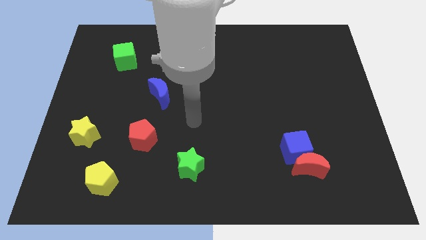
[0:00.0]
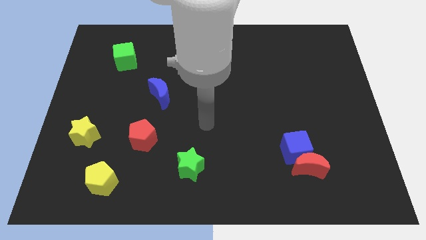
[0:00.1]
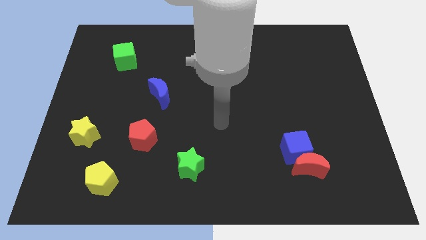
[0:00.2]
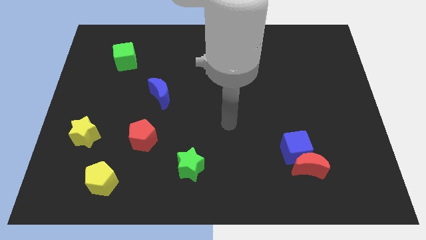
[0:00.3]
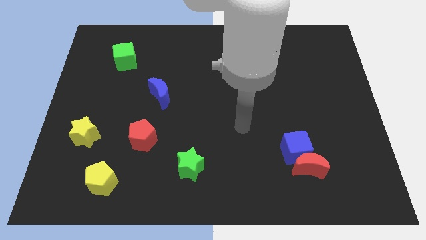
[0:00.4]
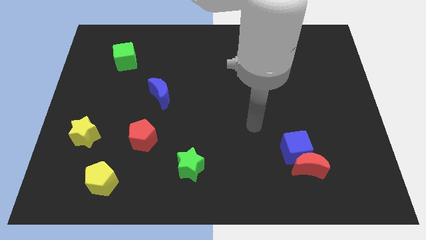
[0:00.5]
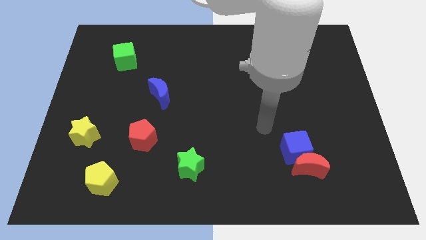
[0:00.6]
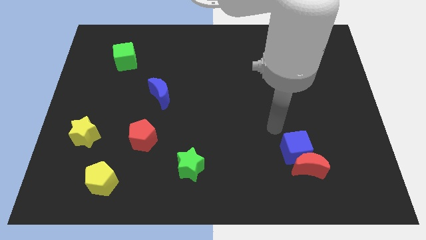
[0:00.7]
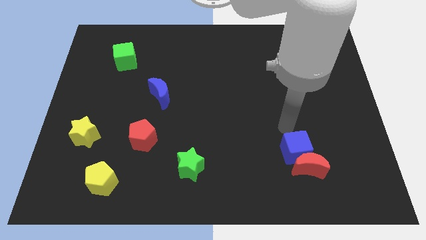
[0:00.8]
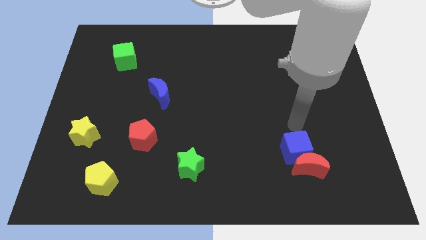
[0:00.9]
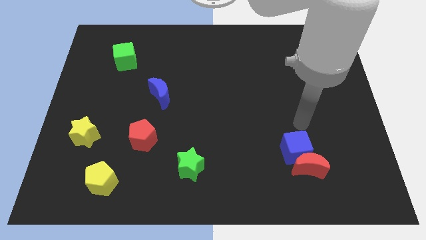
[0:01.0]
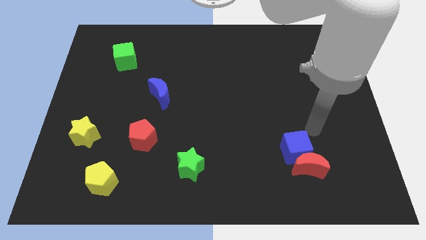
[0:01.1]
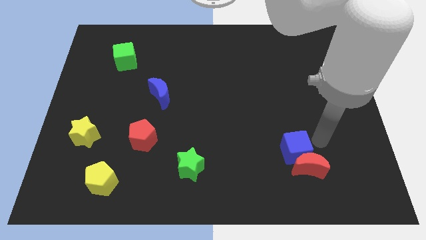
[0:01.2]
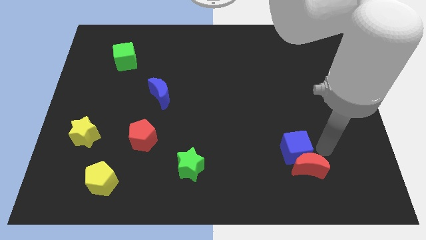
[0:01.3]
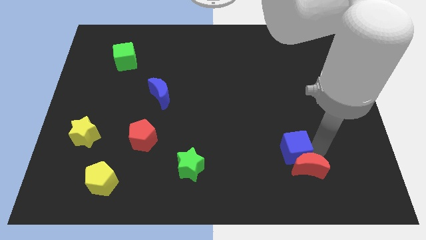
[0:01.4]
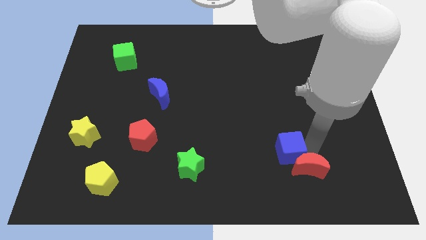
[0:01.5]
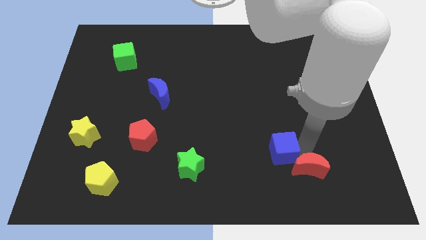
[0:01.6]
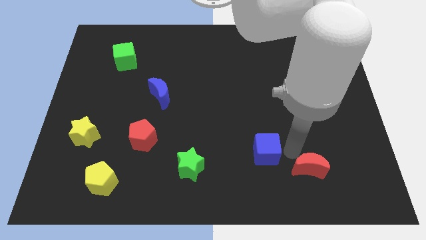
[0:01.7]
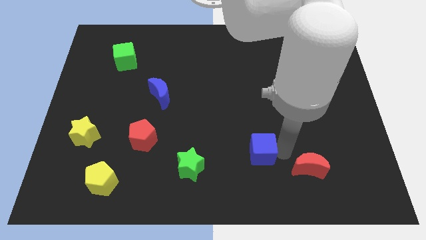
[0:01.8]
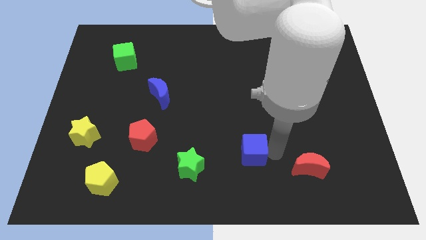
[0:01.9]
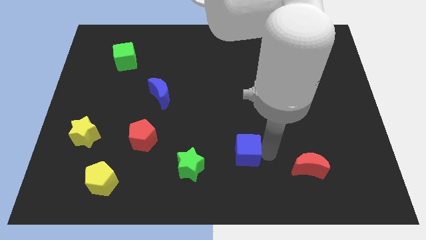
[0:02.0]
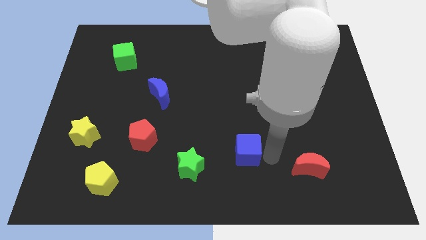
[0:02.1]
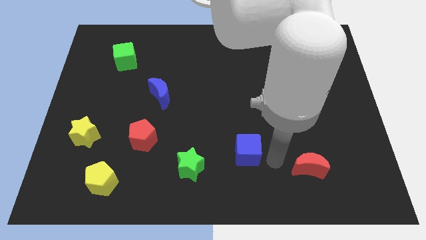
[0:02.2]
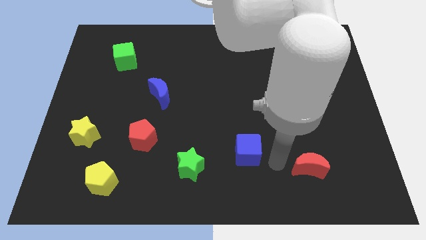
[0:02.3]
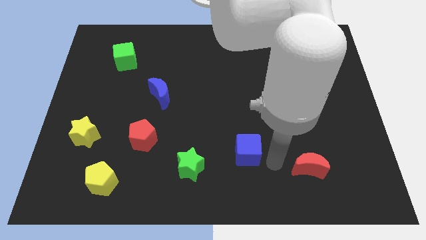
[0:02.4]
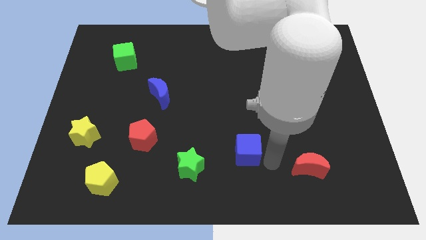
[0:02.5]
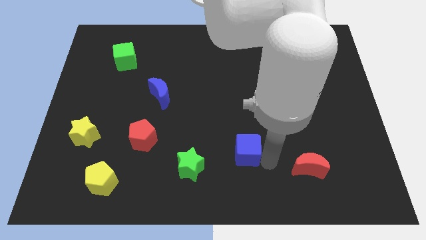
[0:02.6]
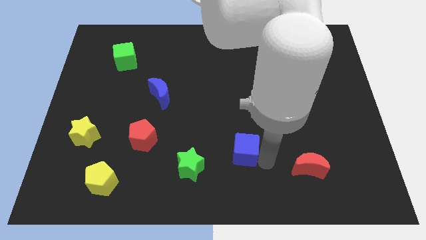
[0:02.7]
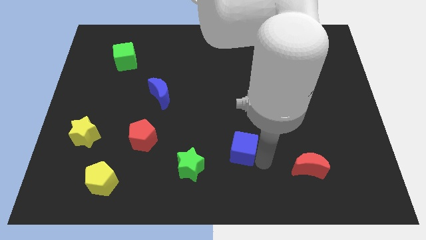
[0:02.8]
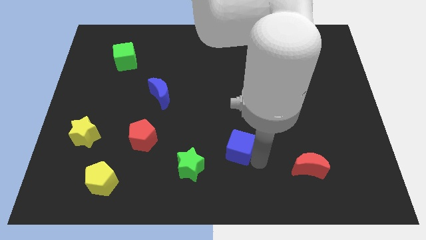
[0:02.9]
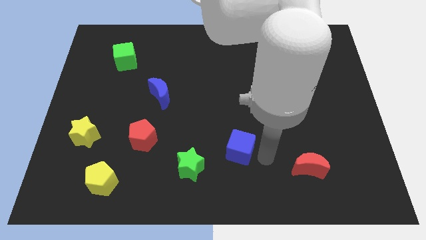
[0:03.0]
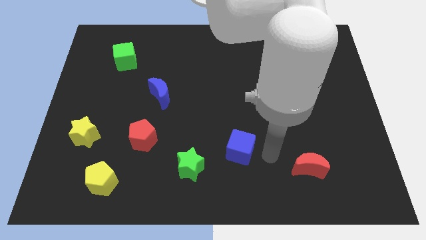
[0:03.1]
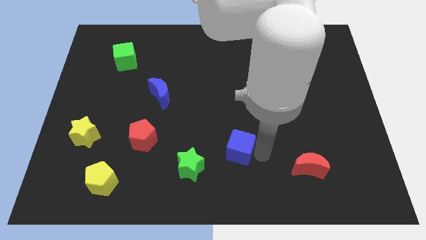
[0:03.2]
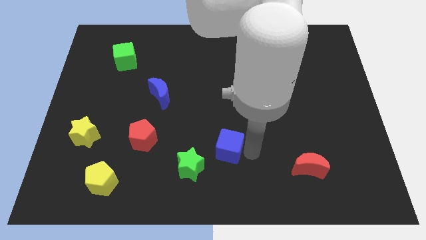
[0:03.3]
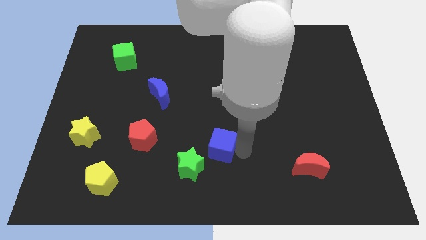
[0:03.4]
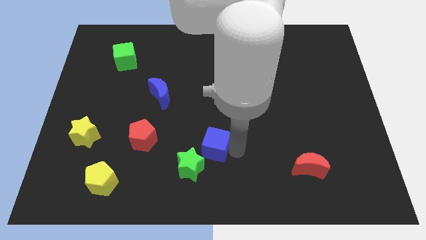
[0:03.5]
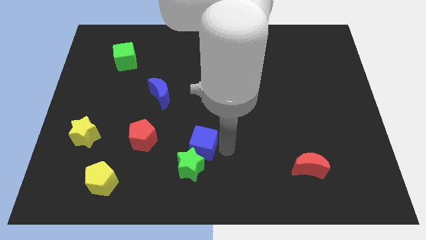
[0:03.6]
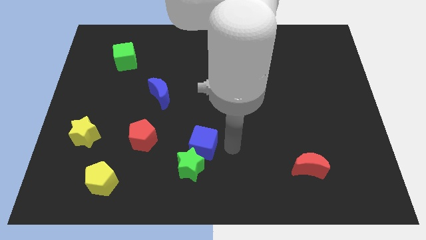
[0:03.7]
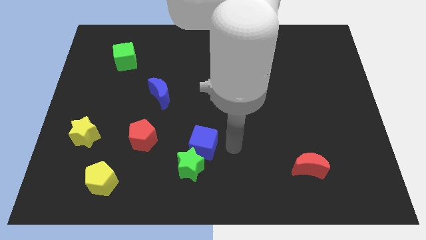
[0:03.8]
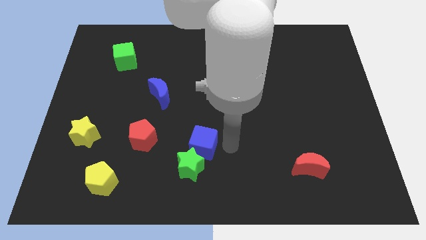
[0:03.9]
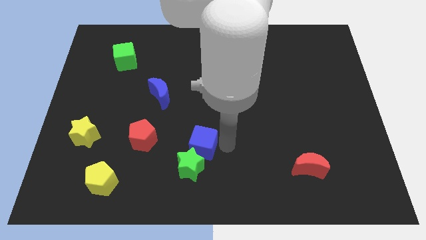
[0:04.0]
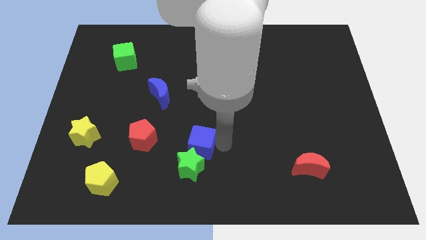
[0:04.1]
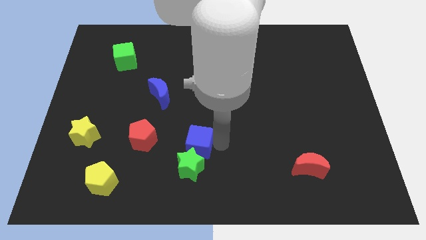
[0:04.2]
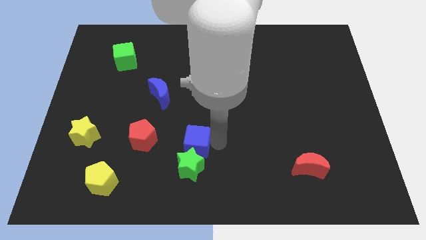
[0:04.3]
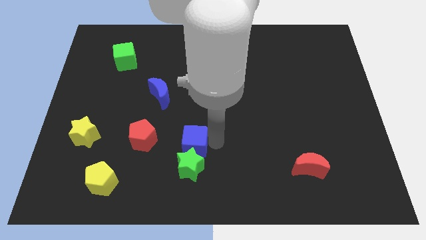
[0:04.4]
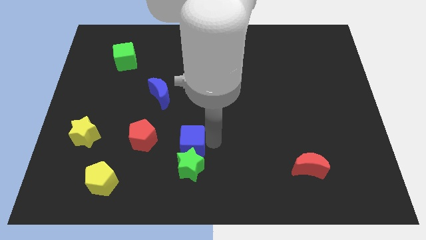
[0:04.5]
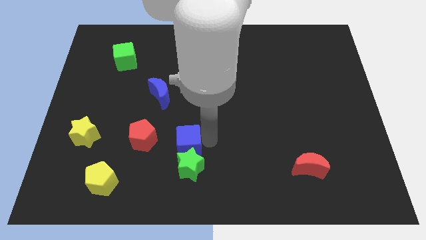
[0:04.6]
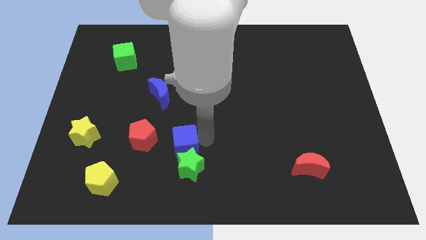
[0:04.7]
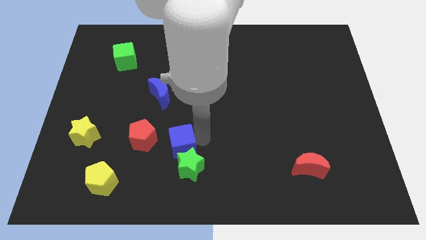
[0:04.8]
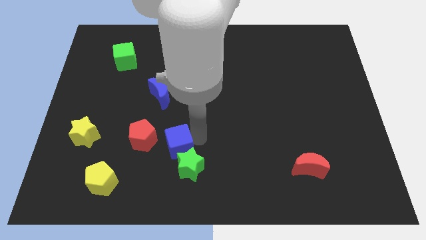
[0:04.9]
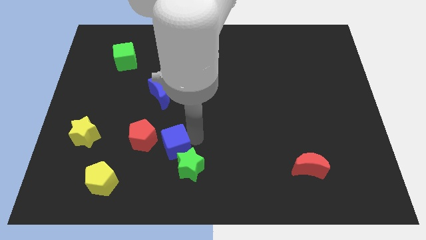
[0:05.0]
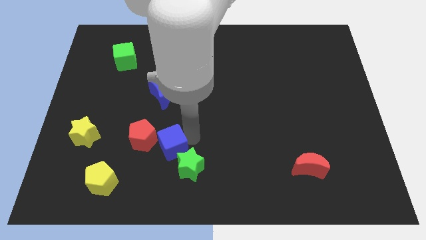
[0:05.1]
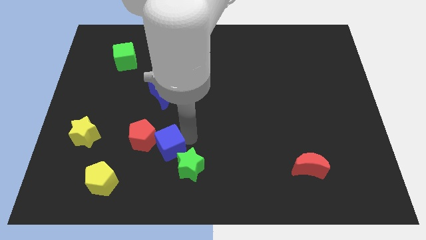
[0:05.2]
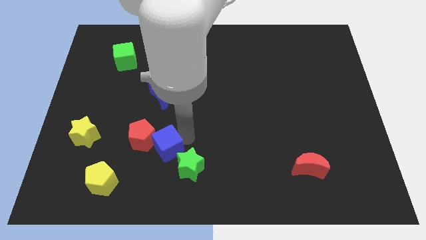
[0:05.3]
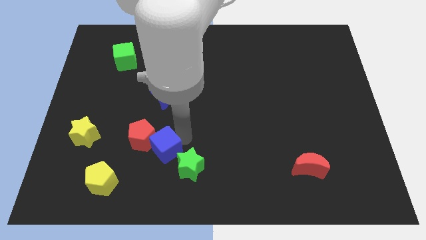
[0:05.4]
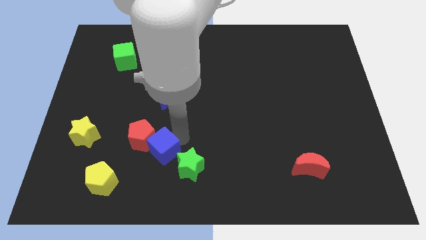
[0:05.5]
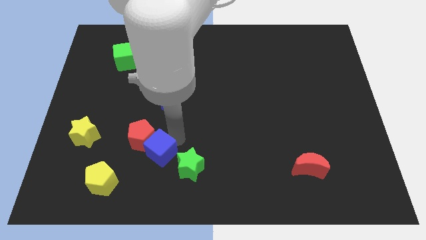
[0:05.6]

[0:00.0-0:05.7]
slide the blue cube to the bottom of the red pentagon

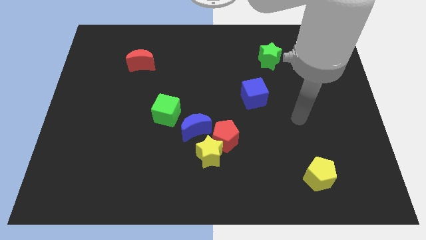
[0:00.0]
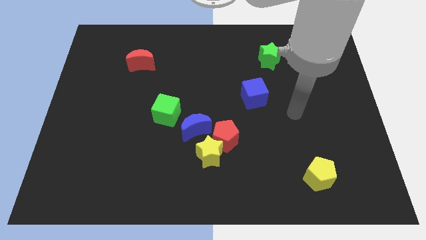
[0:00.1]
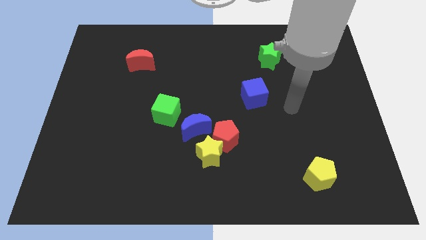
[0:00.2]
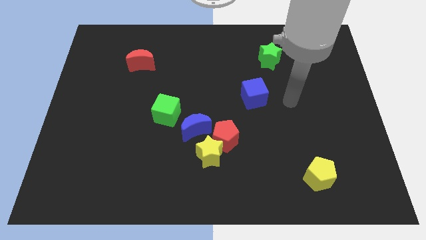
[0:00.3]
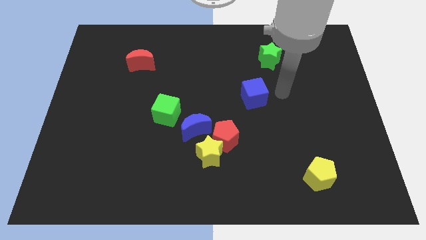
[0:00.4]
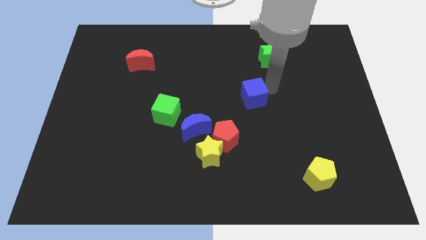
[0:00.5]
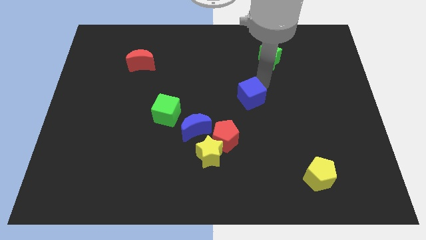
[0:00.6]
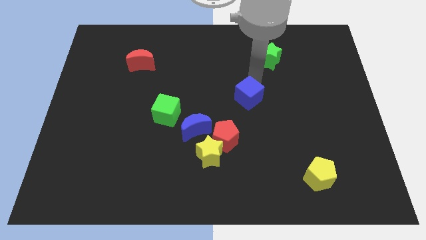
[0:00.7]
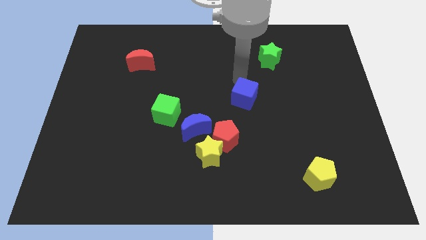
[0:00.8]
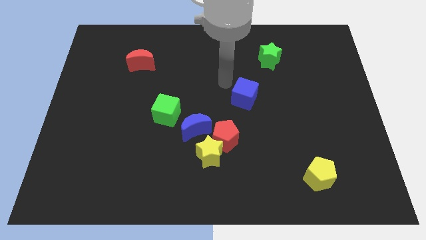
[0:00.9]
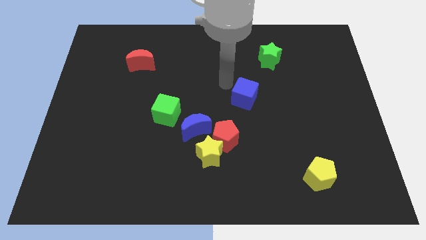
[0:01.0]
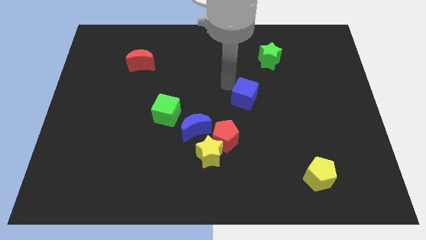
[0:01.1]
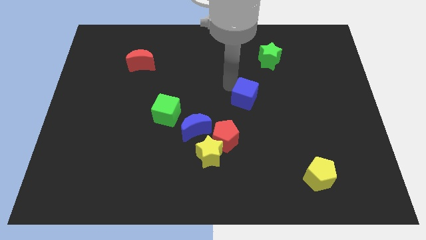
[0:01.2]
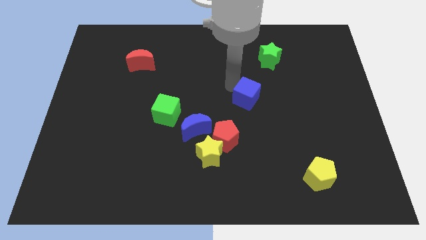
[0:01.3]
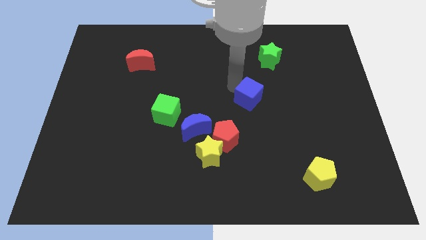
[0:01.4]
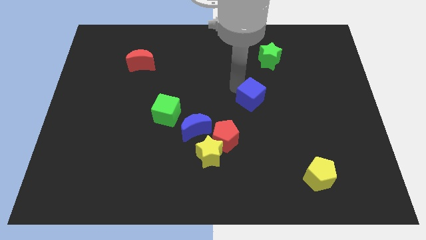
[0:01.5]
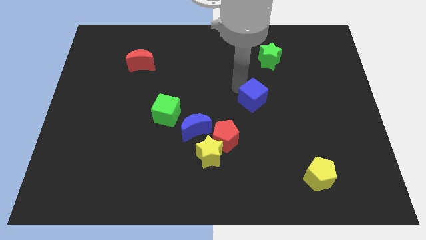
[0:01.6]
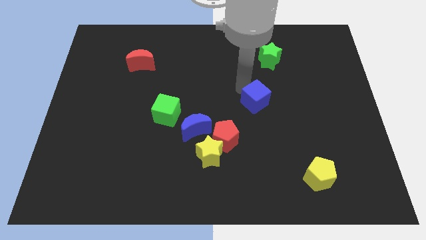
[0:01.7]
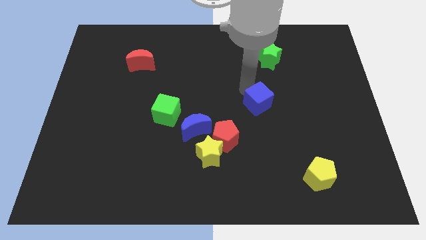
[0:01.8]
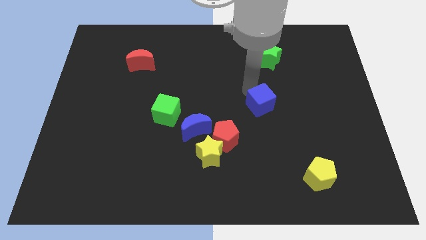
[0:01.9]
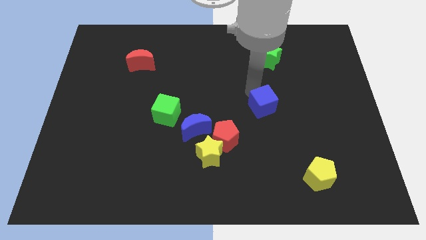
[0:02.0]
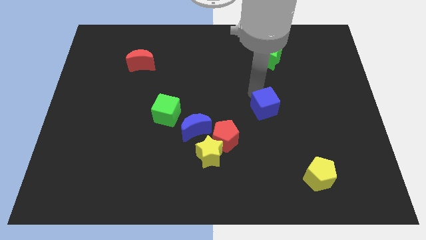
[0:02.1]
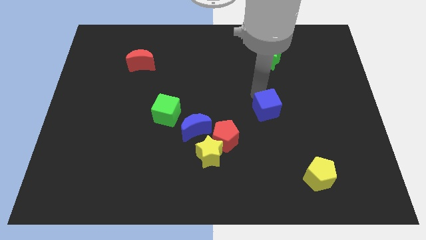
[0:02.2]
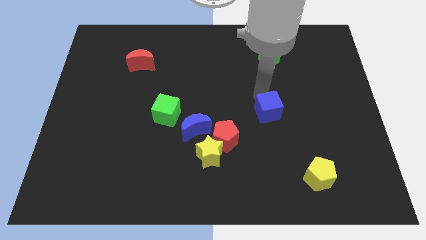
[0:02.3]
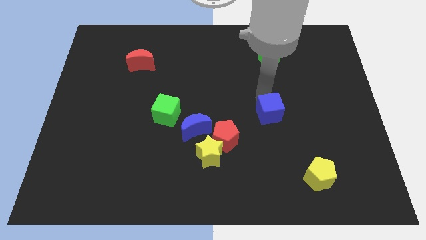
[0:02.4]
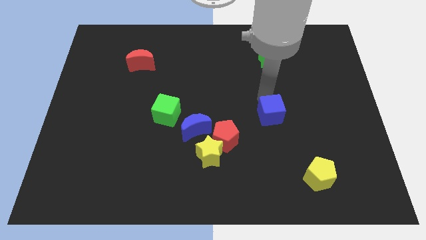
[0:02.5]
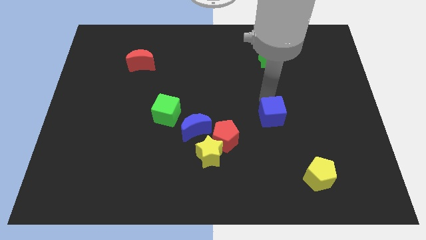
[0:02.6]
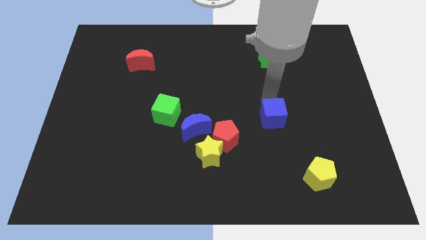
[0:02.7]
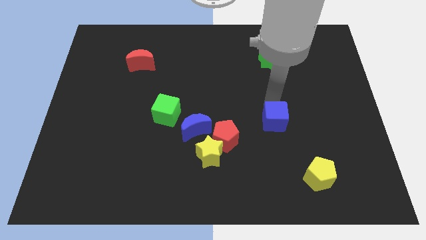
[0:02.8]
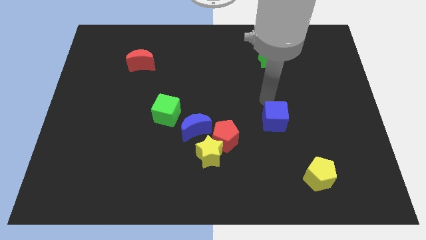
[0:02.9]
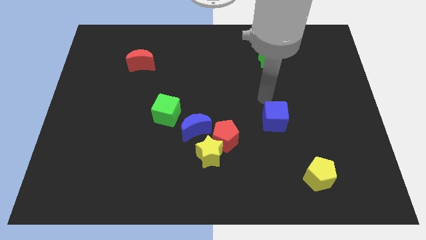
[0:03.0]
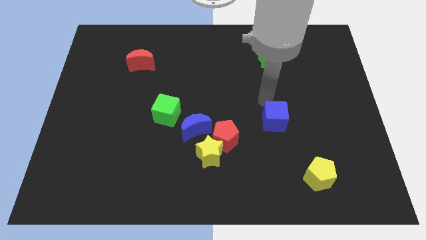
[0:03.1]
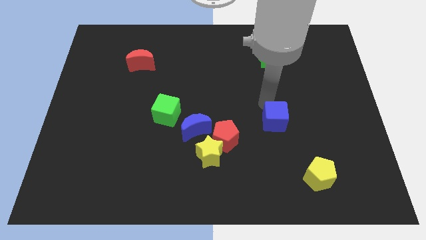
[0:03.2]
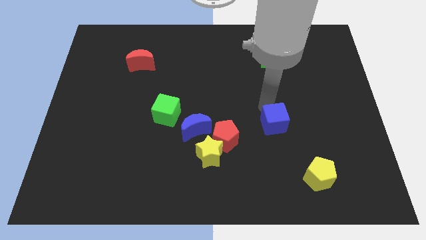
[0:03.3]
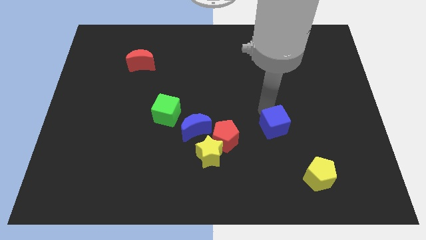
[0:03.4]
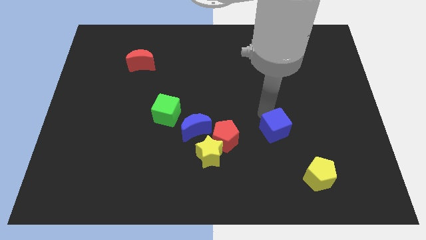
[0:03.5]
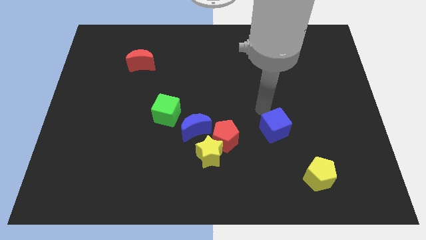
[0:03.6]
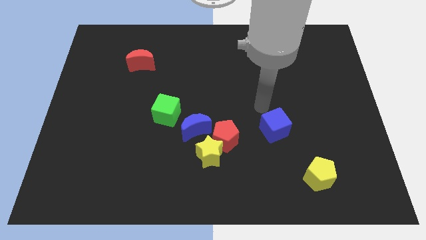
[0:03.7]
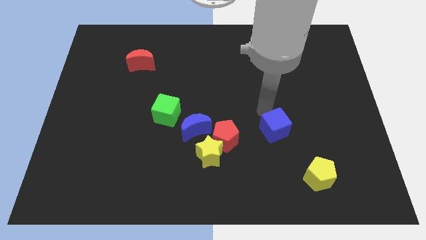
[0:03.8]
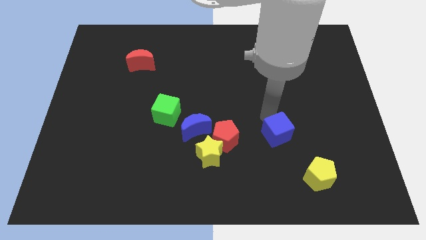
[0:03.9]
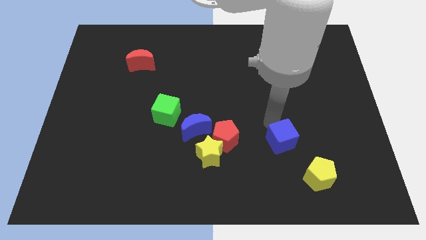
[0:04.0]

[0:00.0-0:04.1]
push the blue cube diagonally up and to the left of the yellow pentagon
